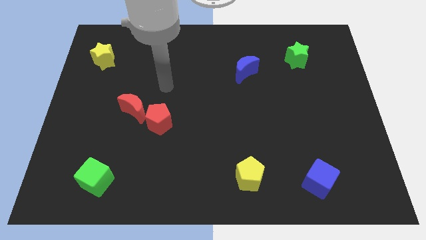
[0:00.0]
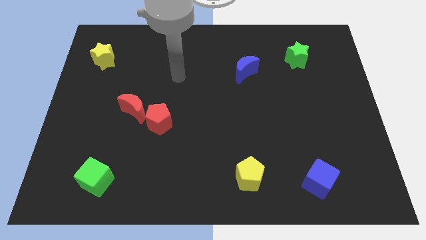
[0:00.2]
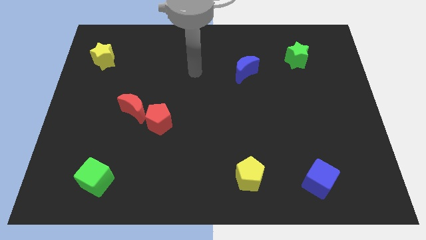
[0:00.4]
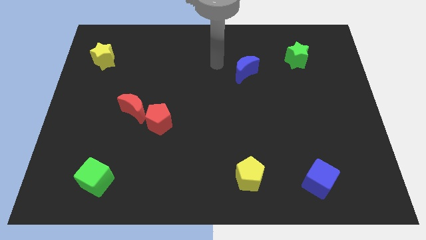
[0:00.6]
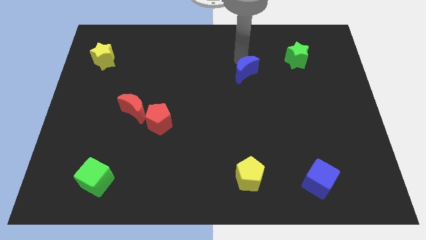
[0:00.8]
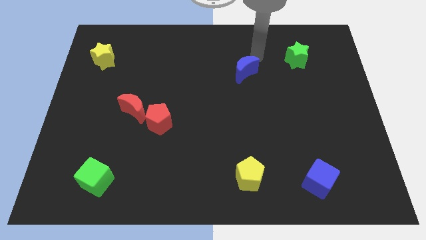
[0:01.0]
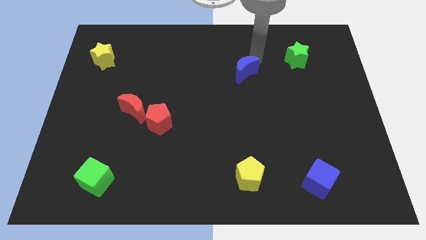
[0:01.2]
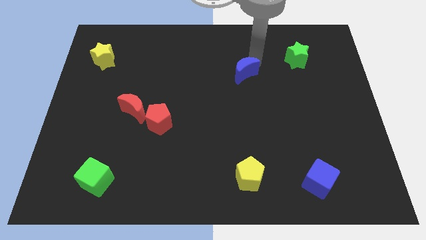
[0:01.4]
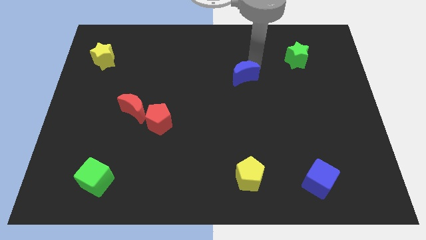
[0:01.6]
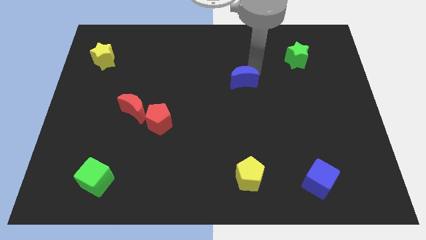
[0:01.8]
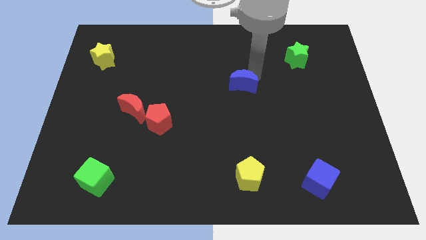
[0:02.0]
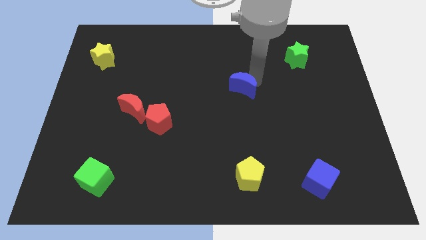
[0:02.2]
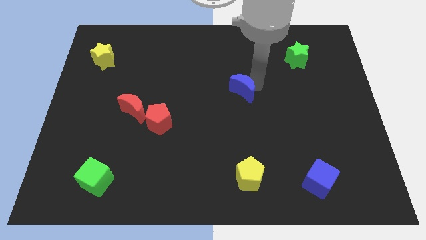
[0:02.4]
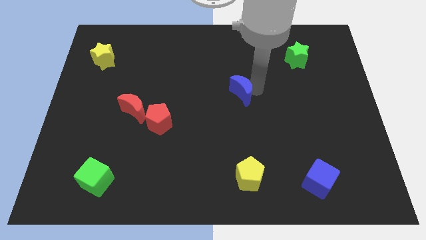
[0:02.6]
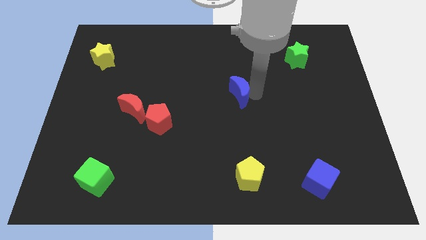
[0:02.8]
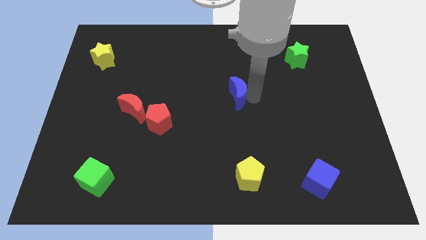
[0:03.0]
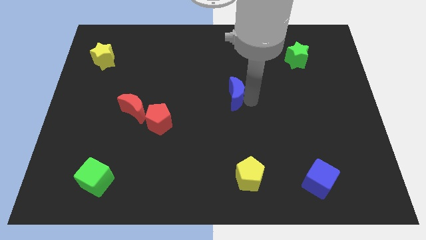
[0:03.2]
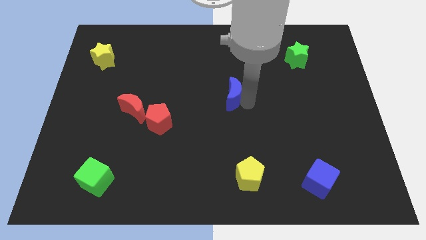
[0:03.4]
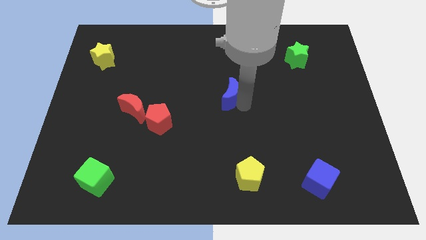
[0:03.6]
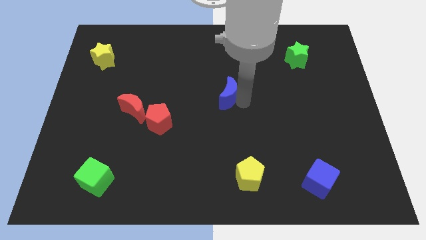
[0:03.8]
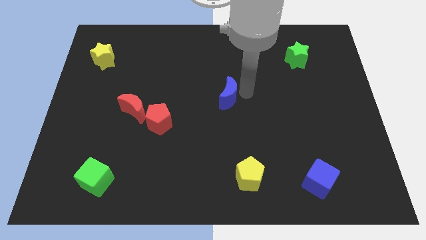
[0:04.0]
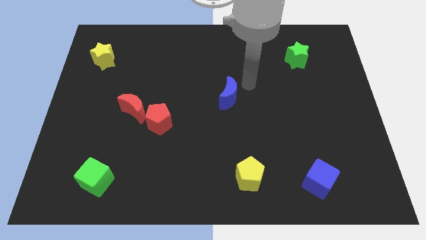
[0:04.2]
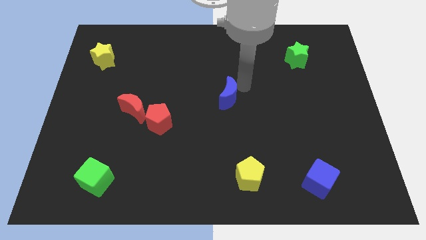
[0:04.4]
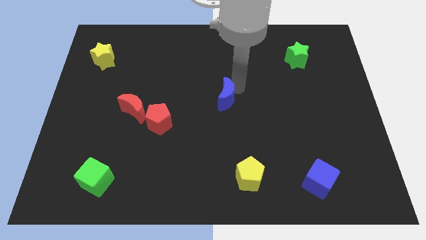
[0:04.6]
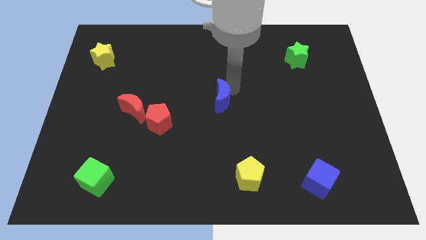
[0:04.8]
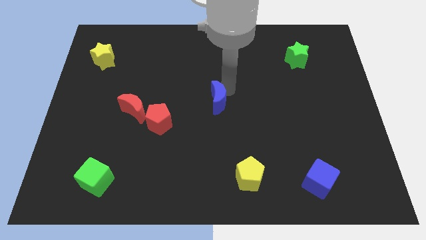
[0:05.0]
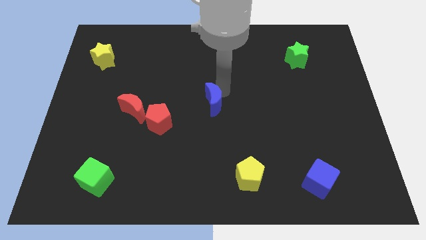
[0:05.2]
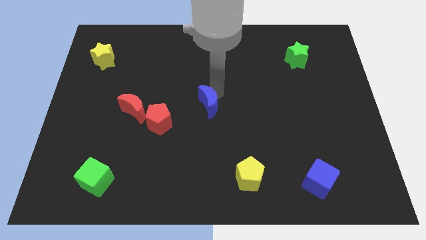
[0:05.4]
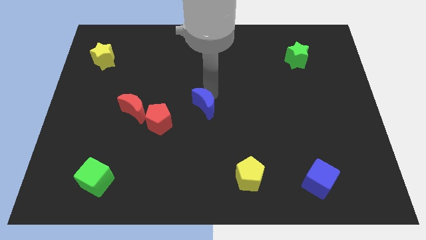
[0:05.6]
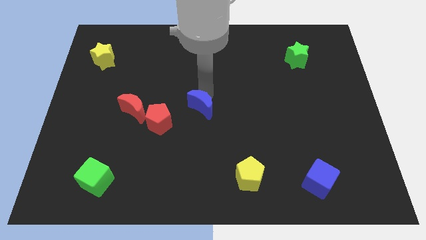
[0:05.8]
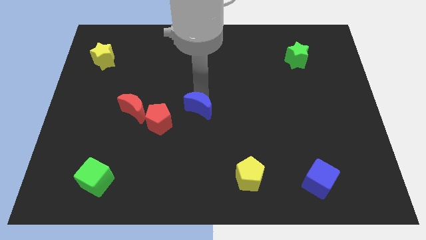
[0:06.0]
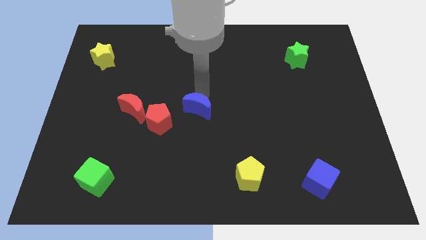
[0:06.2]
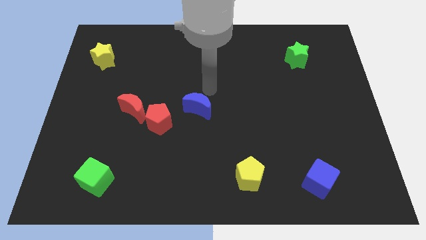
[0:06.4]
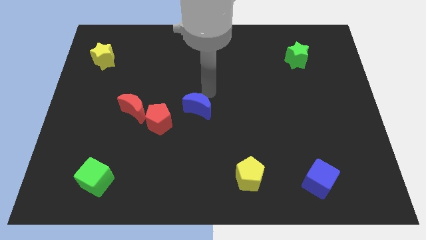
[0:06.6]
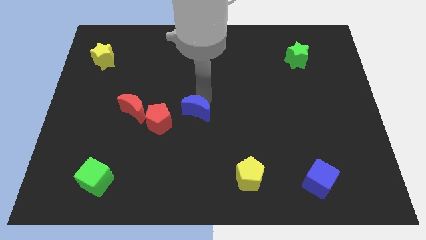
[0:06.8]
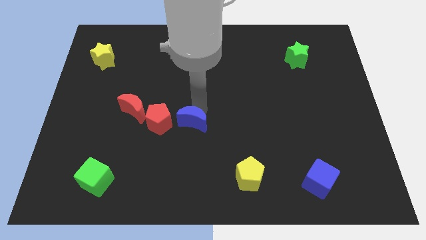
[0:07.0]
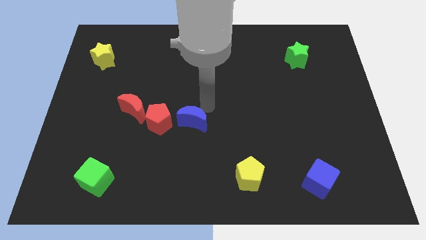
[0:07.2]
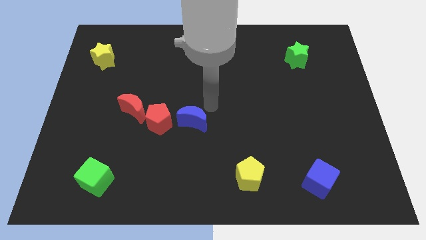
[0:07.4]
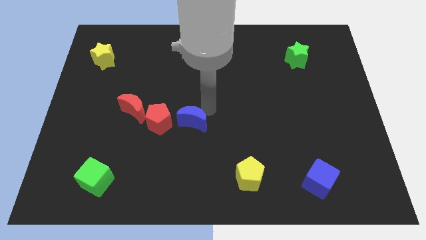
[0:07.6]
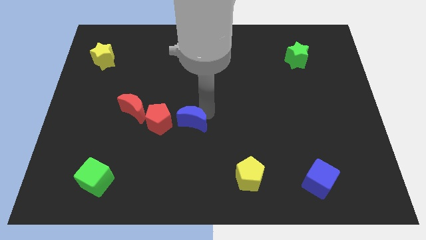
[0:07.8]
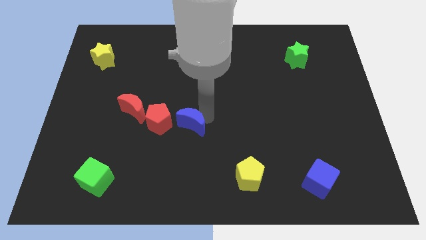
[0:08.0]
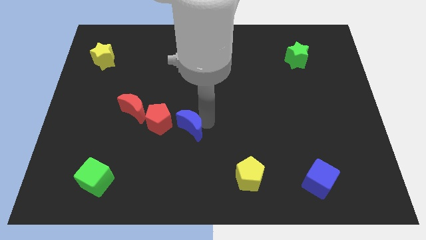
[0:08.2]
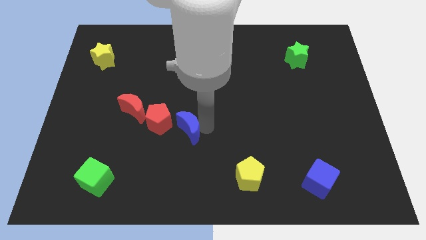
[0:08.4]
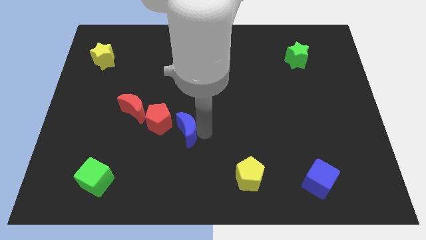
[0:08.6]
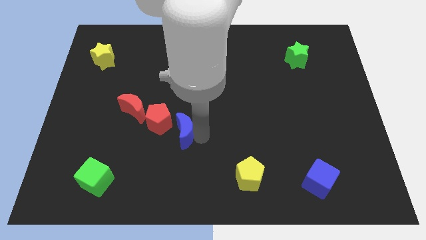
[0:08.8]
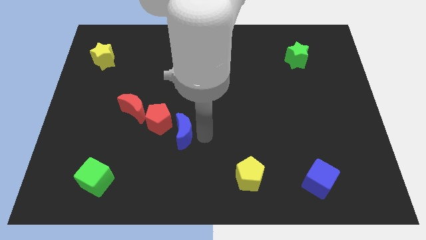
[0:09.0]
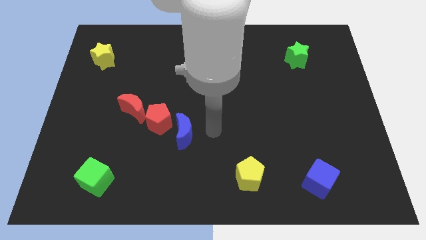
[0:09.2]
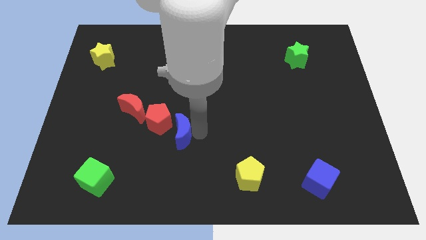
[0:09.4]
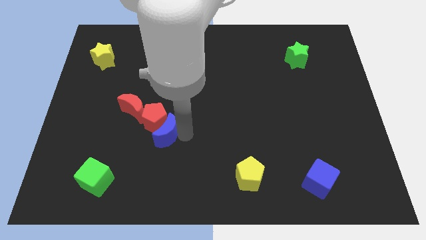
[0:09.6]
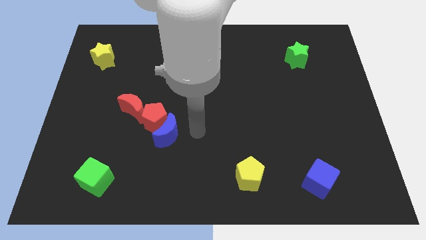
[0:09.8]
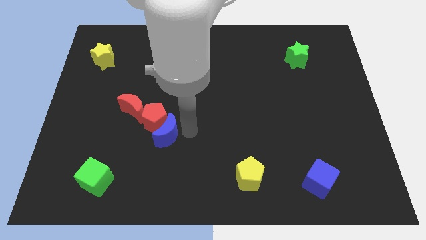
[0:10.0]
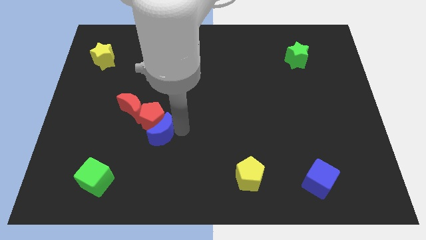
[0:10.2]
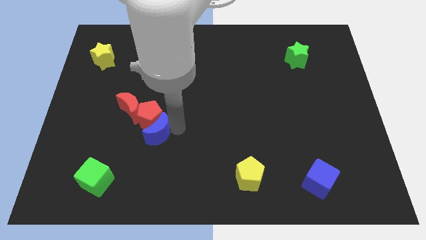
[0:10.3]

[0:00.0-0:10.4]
slide the blue moon to the bottom left of the red pentagon

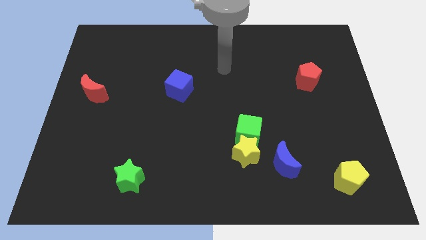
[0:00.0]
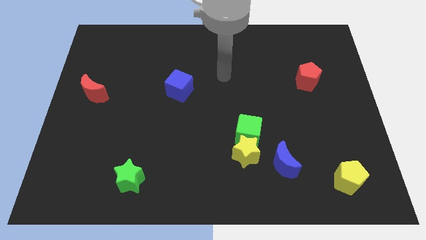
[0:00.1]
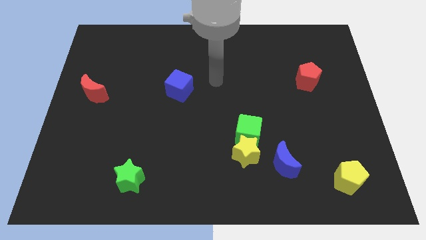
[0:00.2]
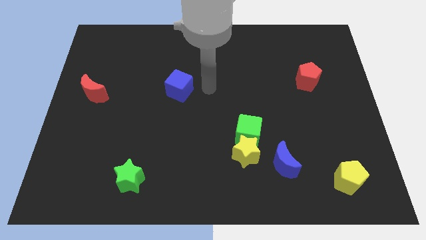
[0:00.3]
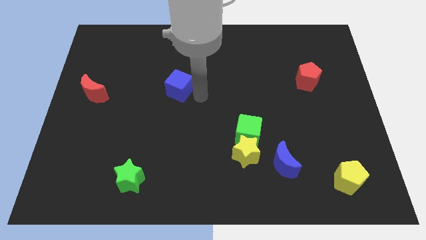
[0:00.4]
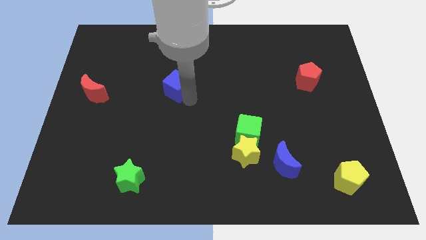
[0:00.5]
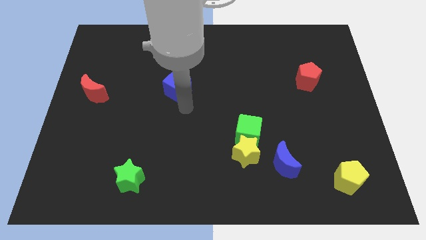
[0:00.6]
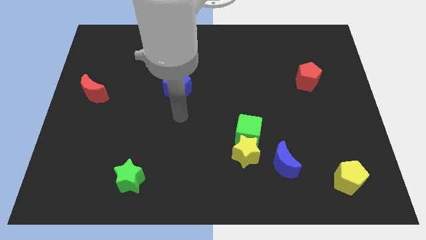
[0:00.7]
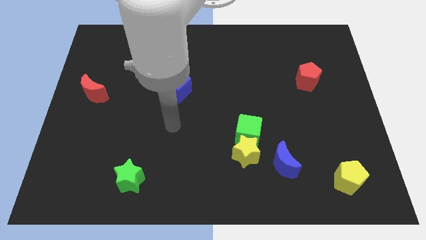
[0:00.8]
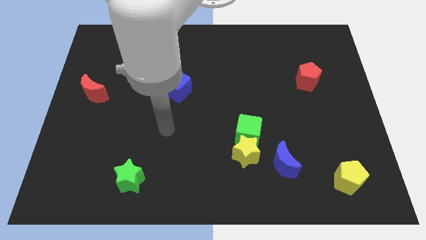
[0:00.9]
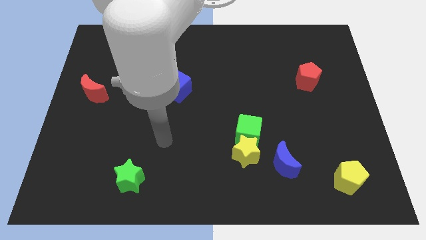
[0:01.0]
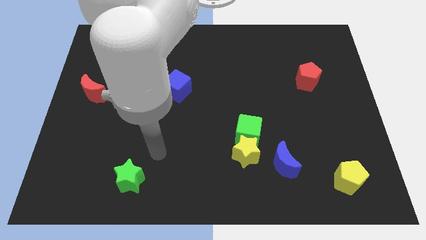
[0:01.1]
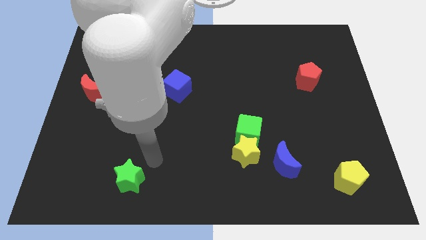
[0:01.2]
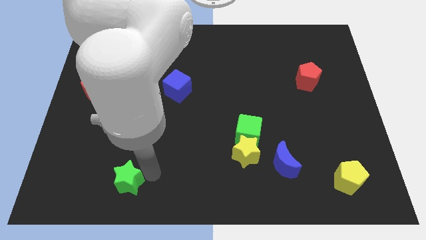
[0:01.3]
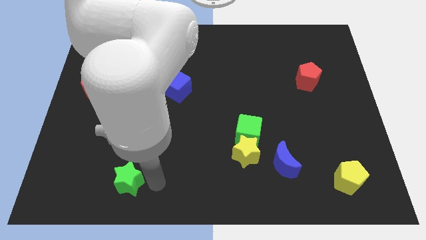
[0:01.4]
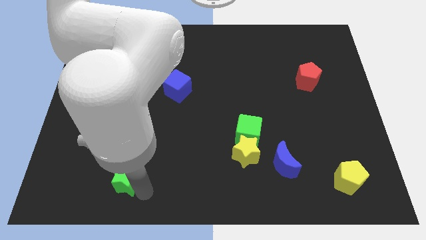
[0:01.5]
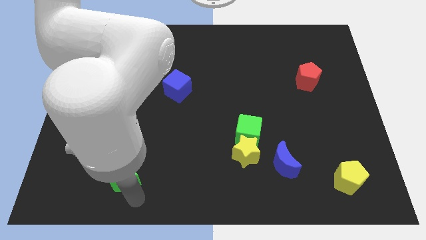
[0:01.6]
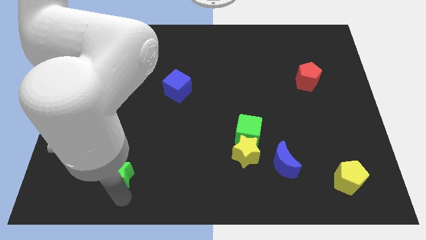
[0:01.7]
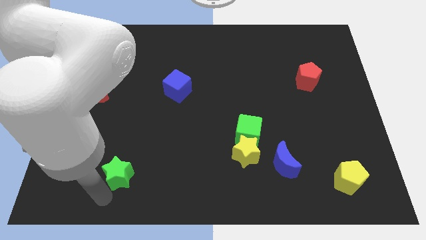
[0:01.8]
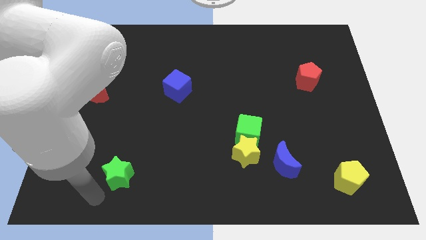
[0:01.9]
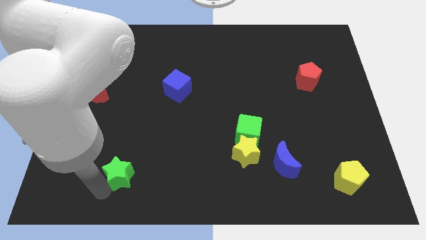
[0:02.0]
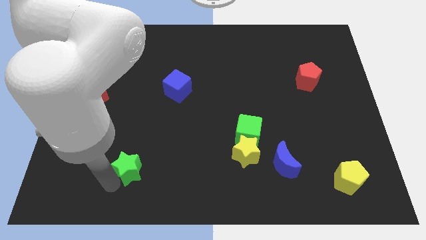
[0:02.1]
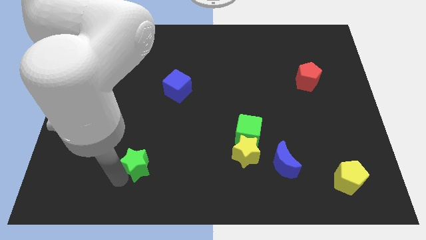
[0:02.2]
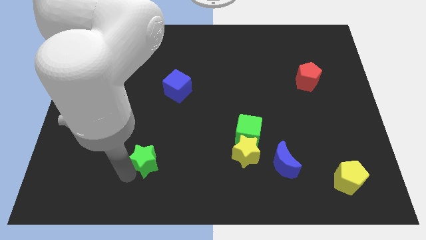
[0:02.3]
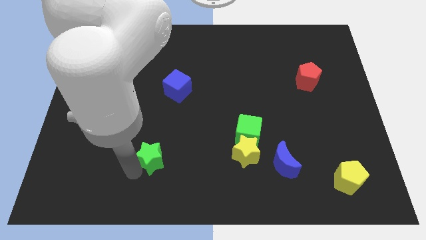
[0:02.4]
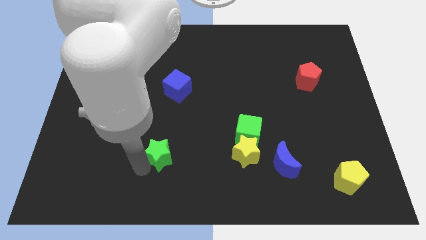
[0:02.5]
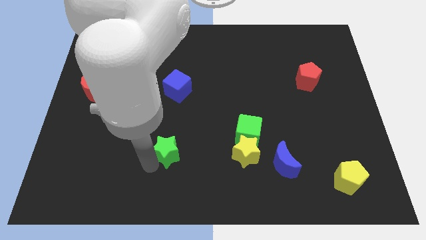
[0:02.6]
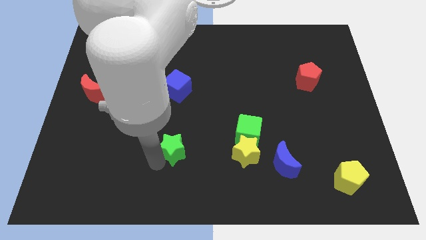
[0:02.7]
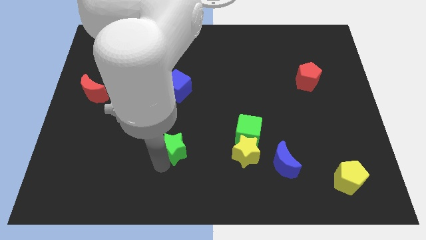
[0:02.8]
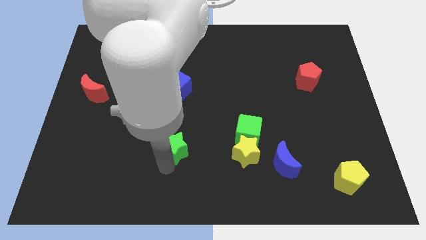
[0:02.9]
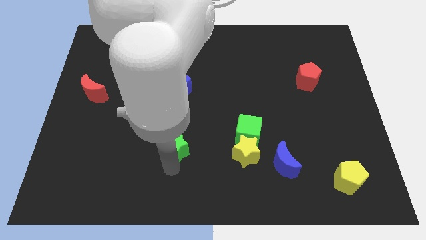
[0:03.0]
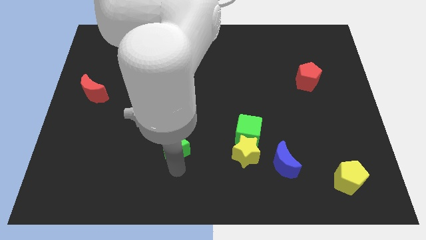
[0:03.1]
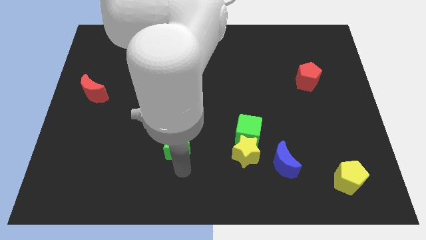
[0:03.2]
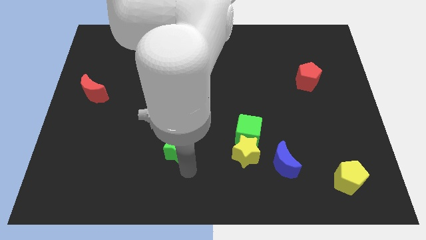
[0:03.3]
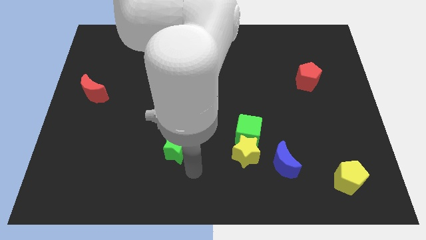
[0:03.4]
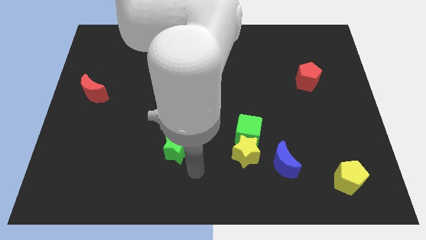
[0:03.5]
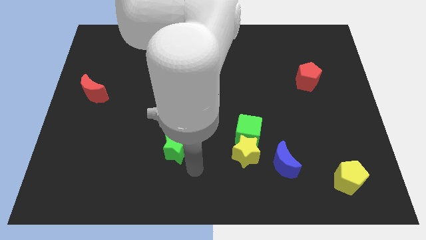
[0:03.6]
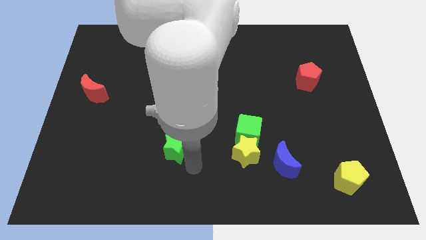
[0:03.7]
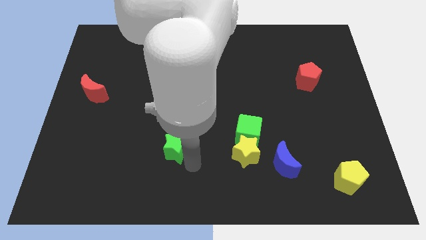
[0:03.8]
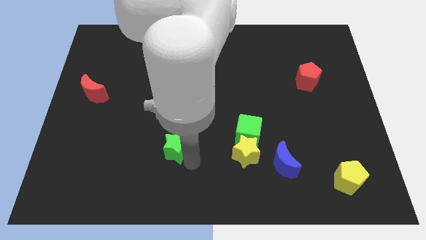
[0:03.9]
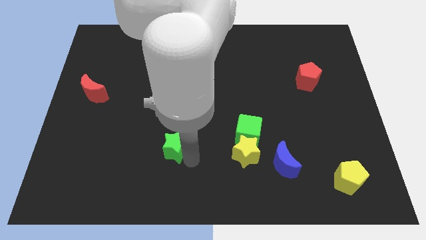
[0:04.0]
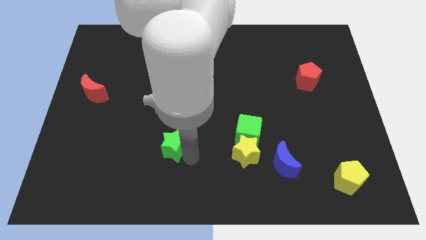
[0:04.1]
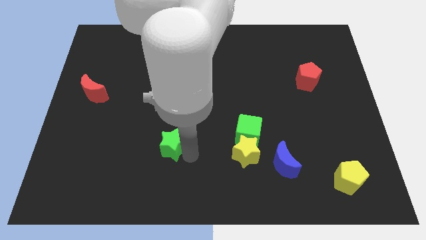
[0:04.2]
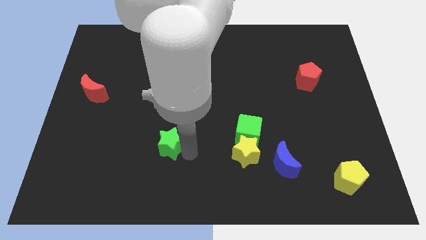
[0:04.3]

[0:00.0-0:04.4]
put the green star below the blue cube
